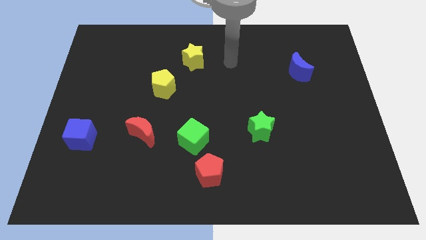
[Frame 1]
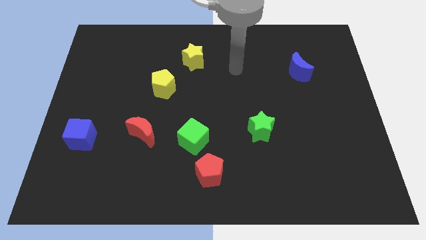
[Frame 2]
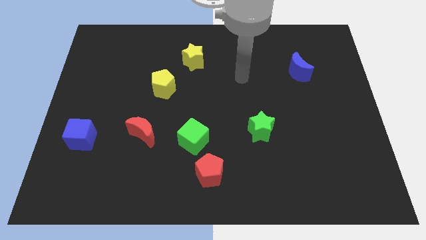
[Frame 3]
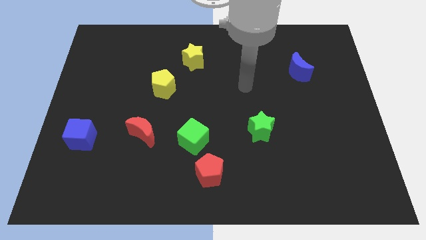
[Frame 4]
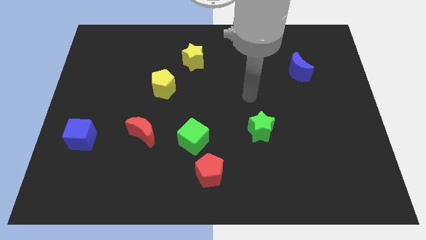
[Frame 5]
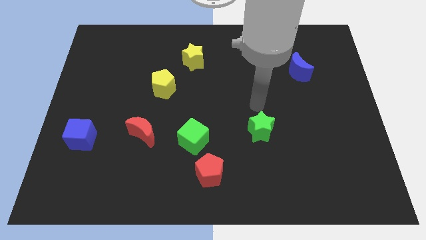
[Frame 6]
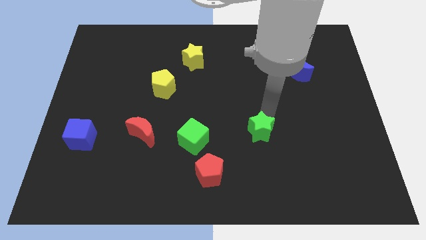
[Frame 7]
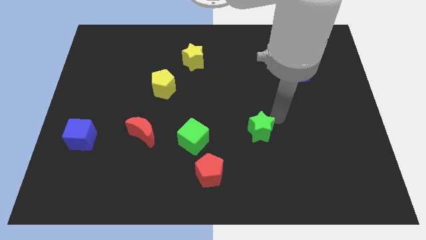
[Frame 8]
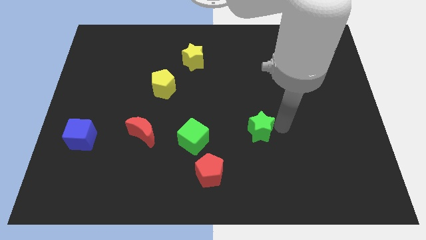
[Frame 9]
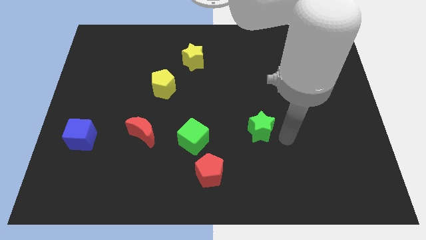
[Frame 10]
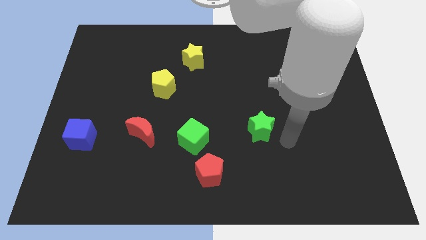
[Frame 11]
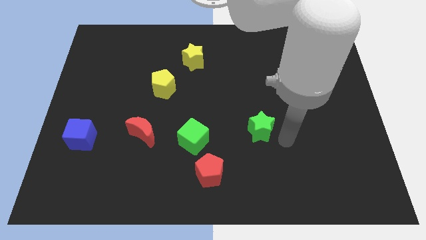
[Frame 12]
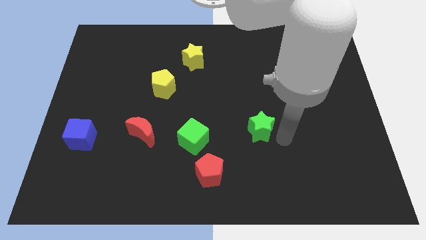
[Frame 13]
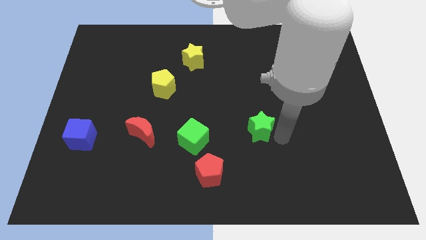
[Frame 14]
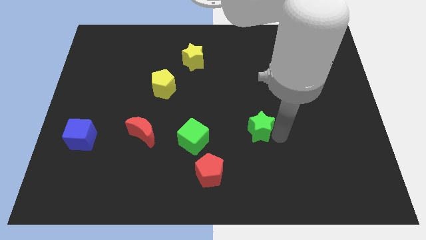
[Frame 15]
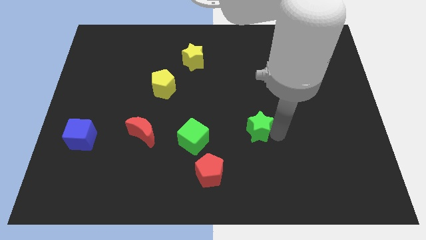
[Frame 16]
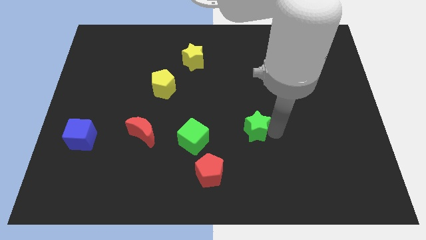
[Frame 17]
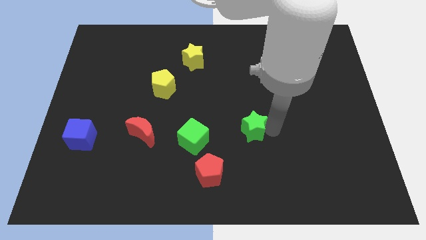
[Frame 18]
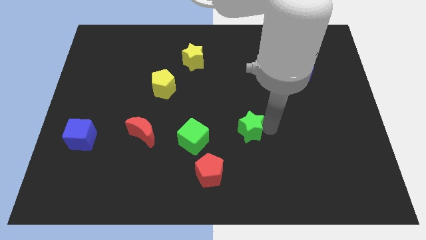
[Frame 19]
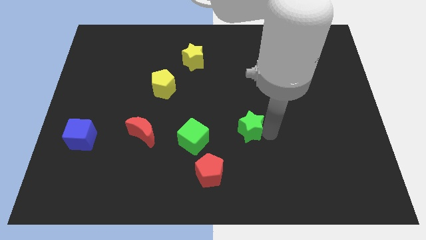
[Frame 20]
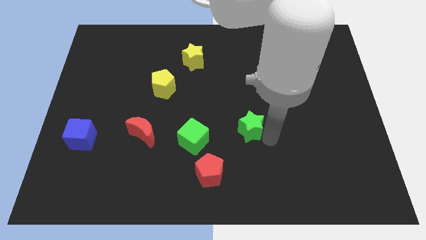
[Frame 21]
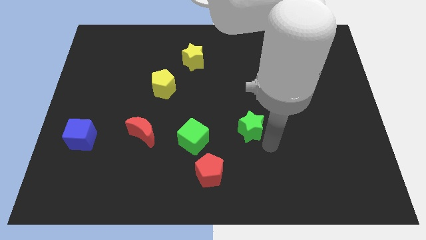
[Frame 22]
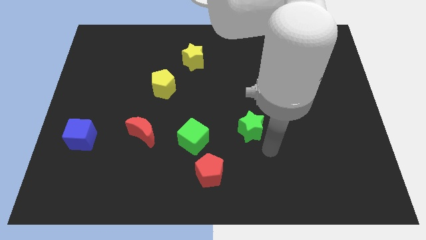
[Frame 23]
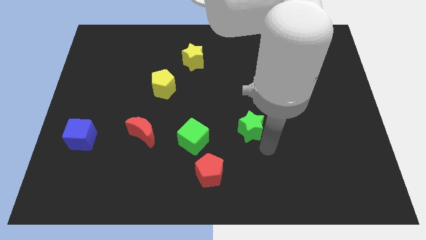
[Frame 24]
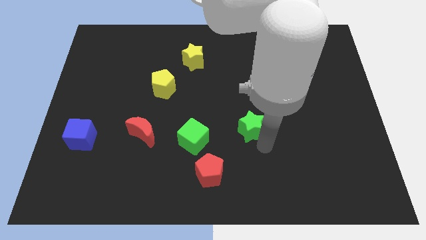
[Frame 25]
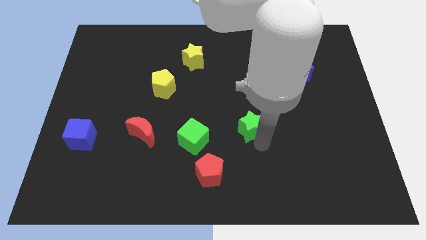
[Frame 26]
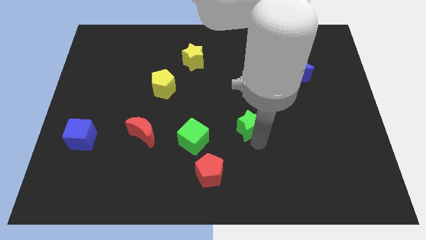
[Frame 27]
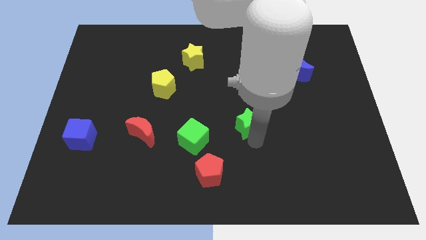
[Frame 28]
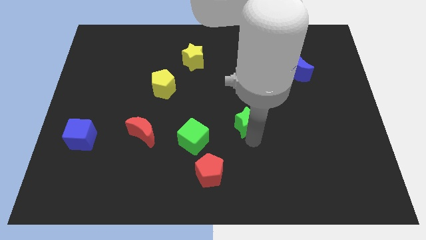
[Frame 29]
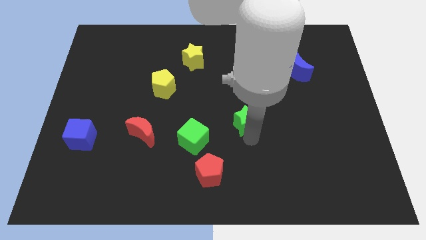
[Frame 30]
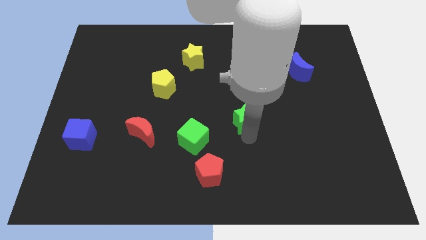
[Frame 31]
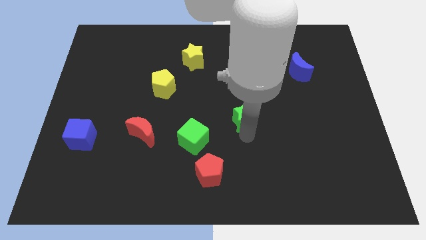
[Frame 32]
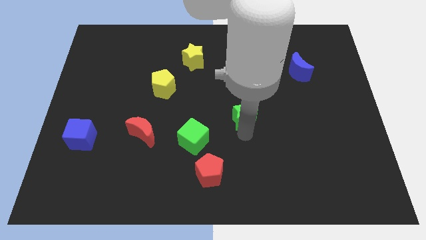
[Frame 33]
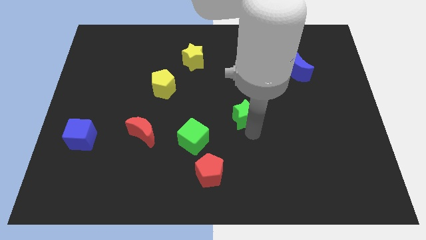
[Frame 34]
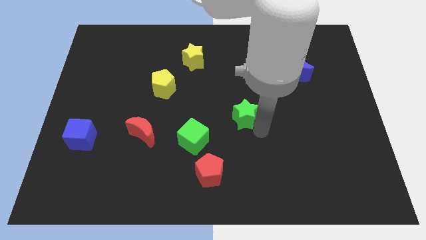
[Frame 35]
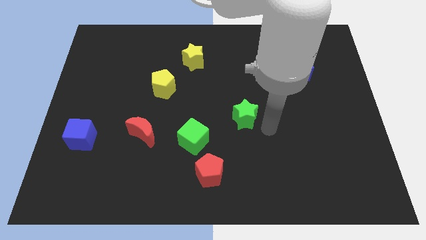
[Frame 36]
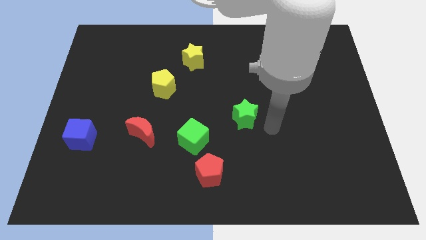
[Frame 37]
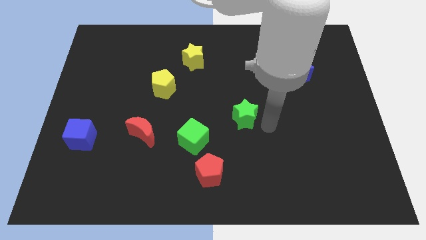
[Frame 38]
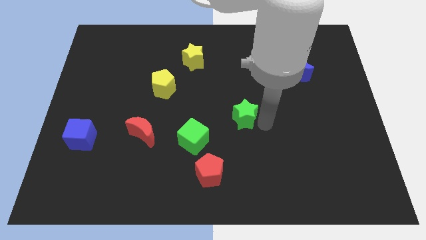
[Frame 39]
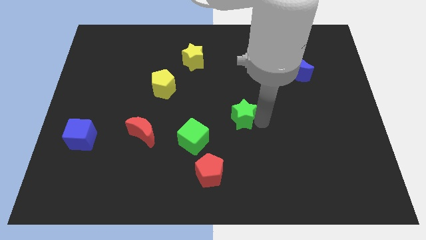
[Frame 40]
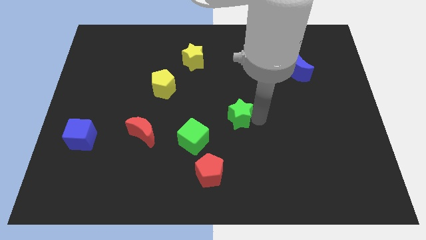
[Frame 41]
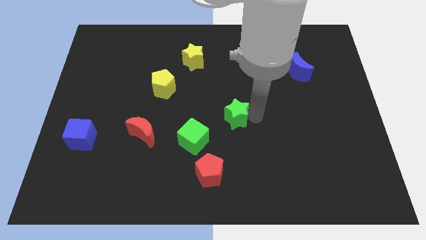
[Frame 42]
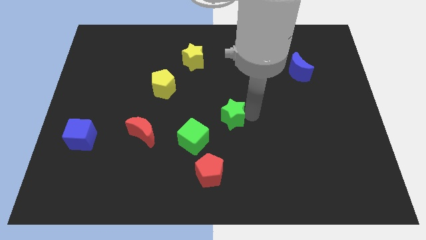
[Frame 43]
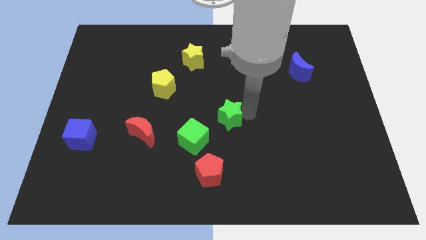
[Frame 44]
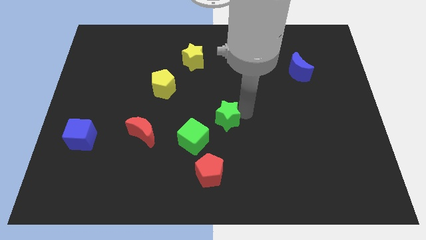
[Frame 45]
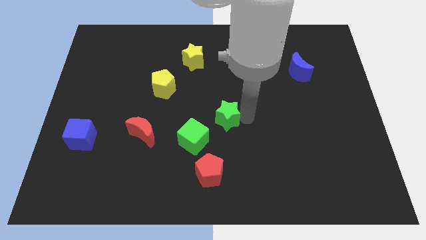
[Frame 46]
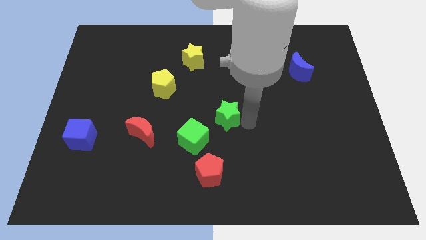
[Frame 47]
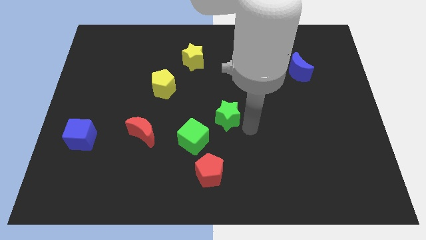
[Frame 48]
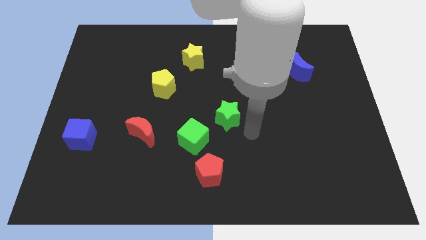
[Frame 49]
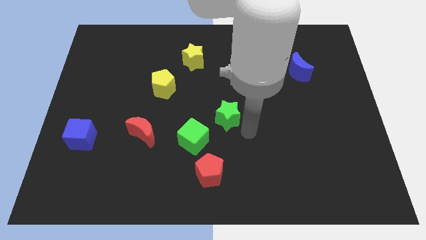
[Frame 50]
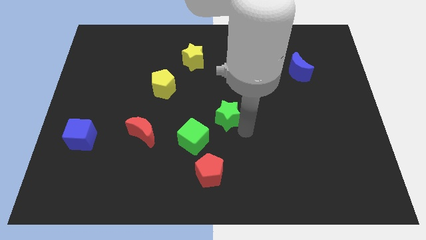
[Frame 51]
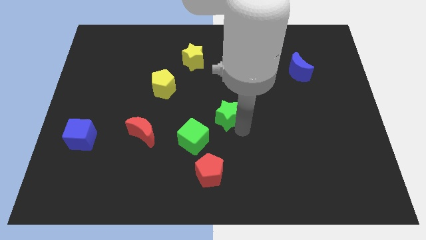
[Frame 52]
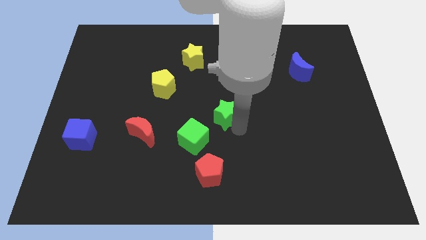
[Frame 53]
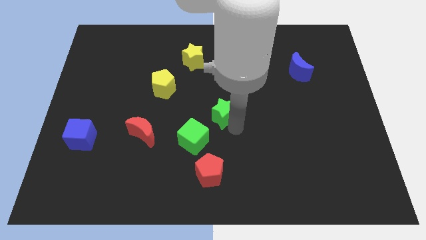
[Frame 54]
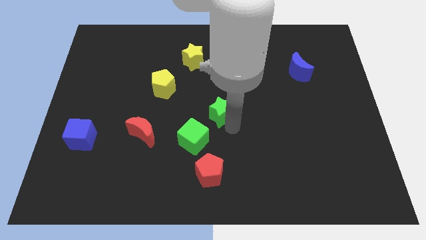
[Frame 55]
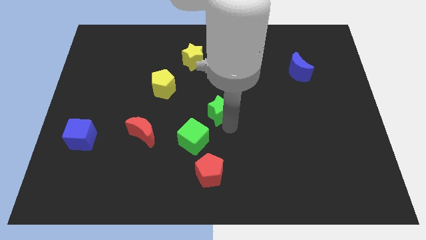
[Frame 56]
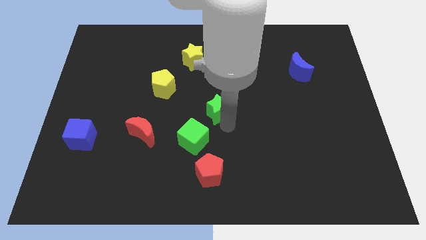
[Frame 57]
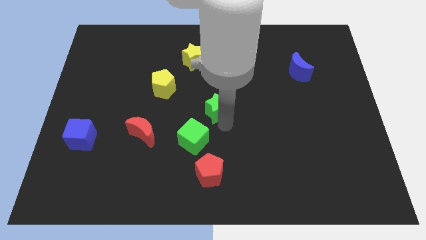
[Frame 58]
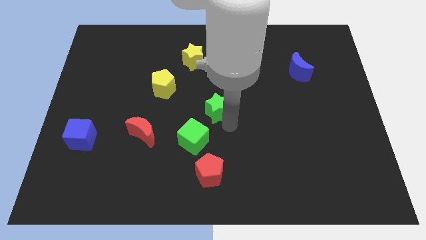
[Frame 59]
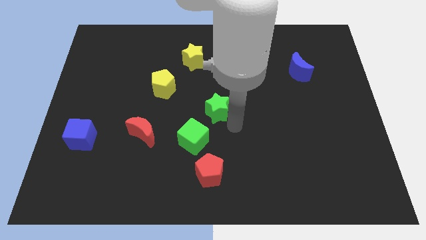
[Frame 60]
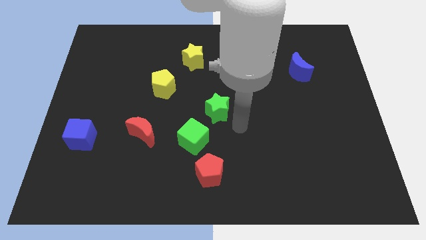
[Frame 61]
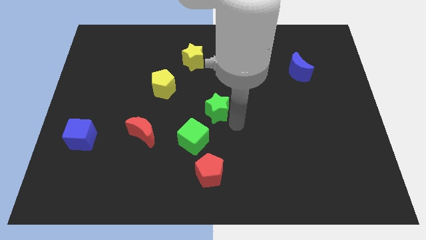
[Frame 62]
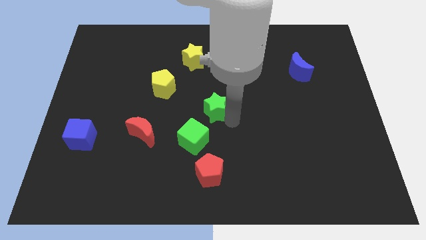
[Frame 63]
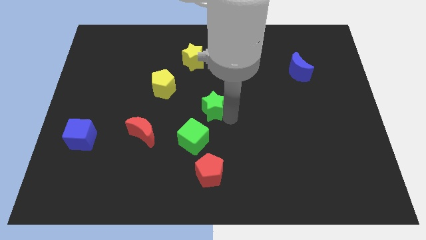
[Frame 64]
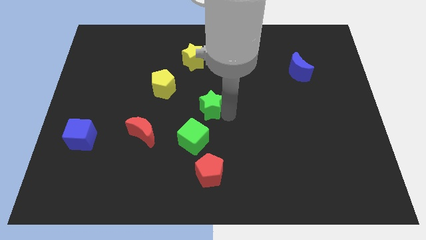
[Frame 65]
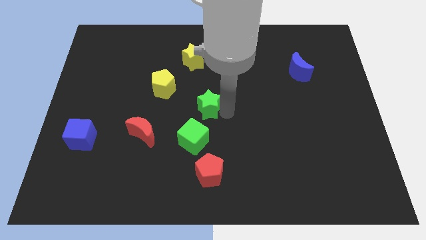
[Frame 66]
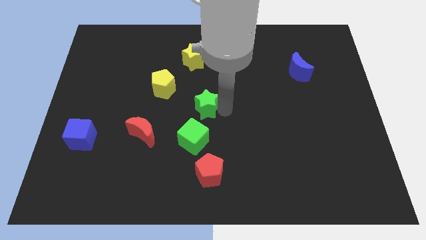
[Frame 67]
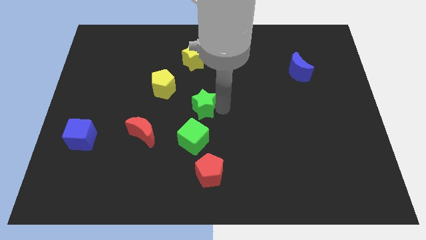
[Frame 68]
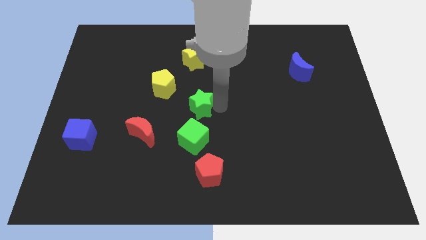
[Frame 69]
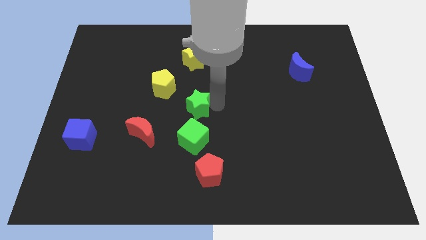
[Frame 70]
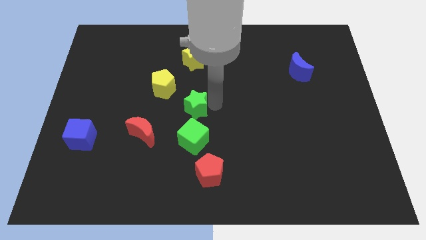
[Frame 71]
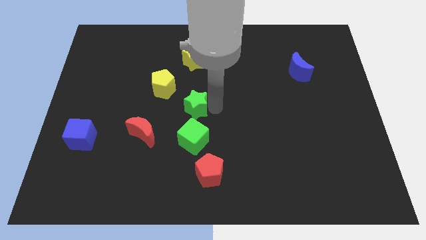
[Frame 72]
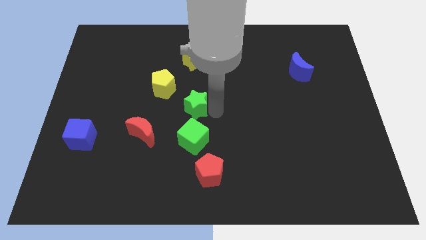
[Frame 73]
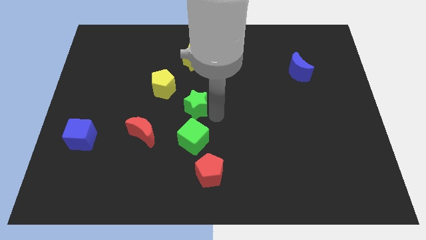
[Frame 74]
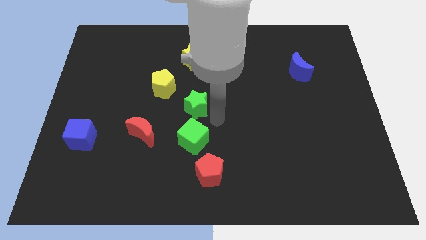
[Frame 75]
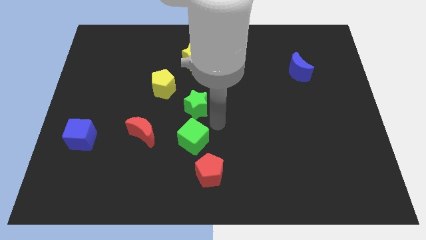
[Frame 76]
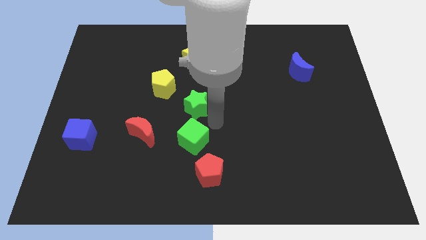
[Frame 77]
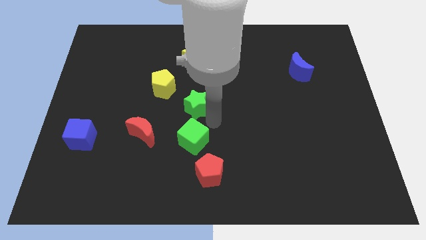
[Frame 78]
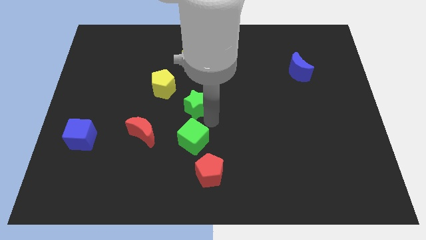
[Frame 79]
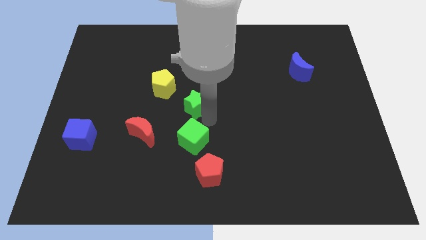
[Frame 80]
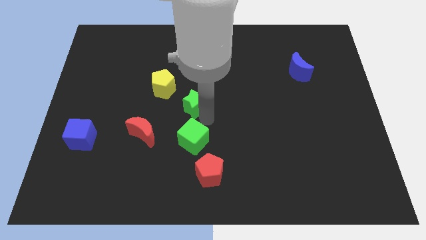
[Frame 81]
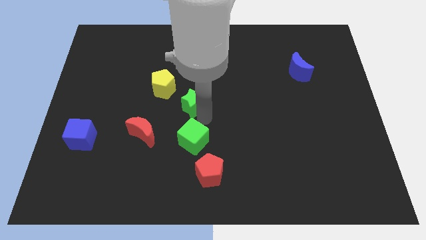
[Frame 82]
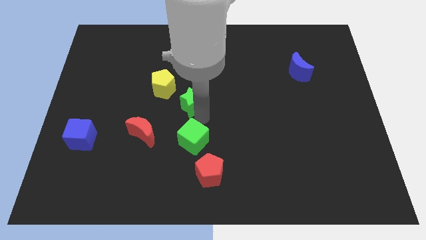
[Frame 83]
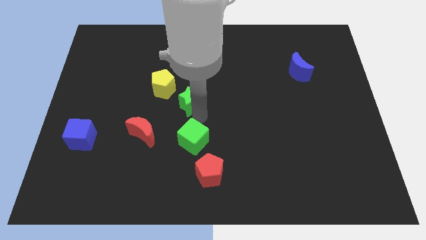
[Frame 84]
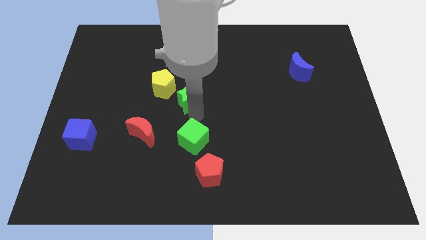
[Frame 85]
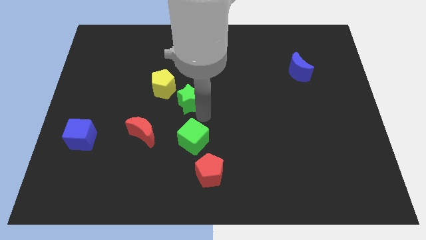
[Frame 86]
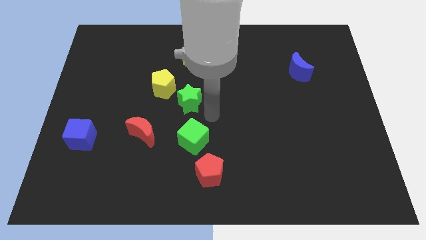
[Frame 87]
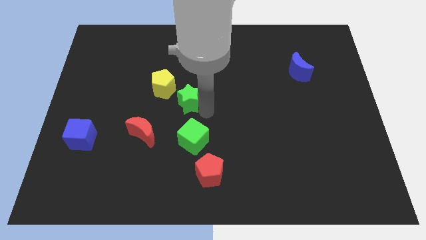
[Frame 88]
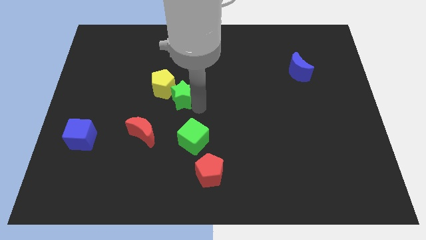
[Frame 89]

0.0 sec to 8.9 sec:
slide the green star next to the yellow pentagon
